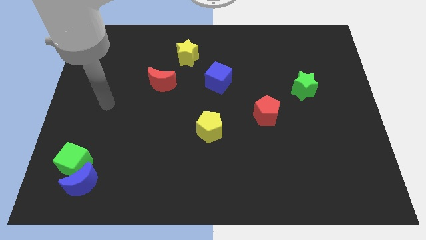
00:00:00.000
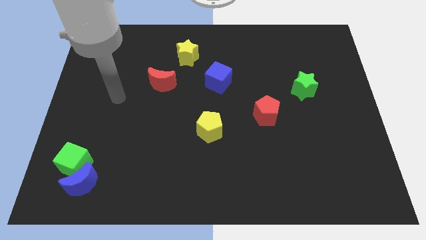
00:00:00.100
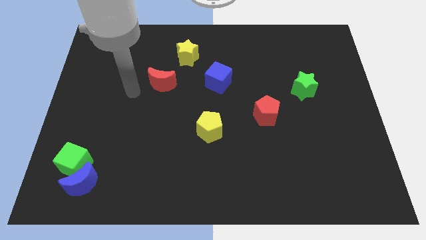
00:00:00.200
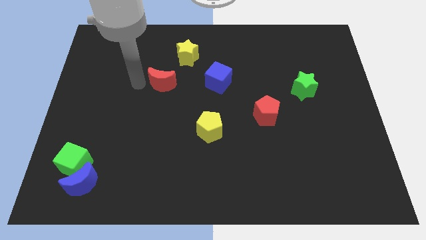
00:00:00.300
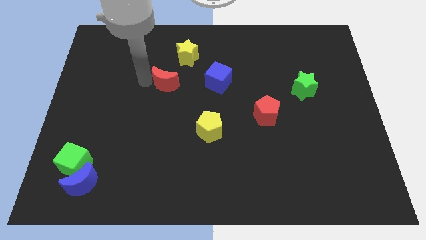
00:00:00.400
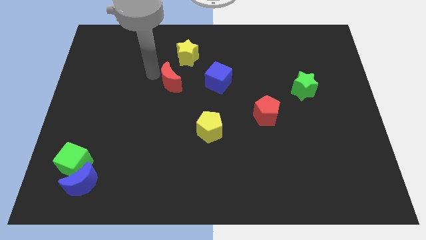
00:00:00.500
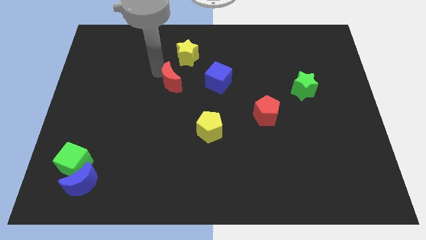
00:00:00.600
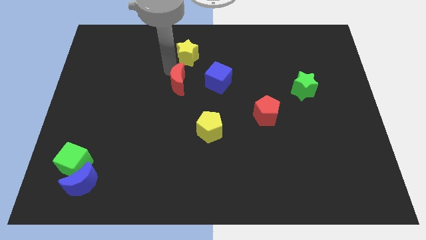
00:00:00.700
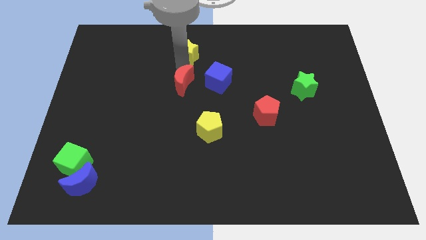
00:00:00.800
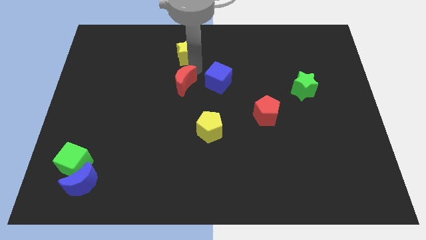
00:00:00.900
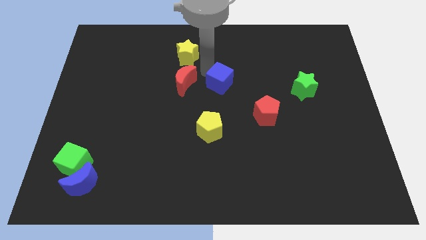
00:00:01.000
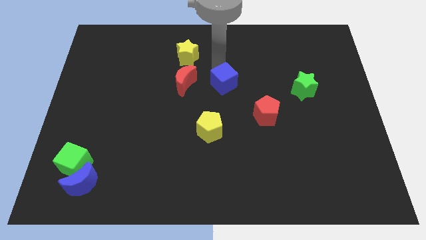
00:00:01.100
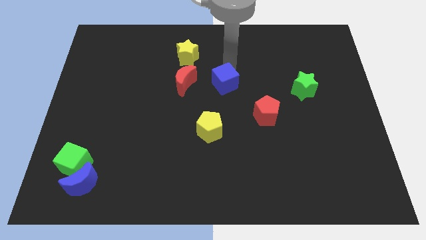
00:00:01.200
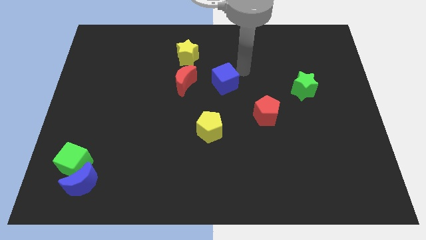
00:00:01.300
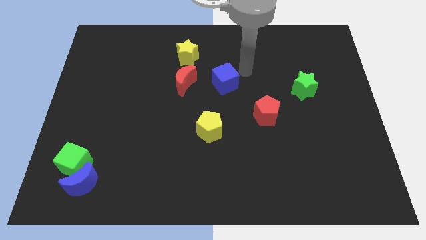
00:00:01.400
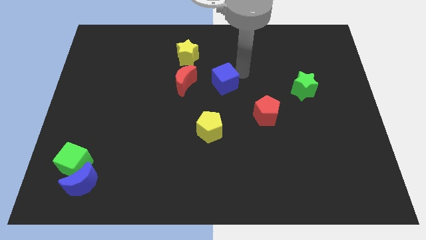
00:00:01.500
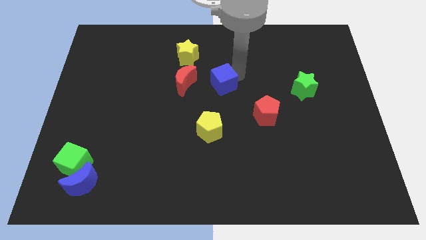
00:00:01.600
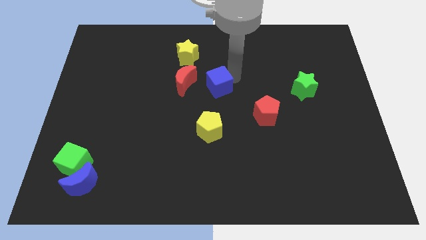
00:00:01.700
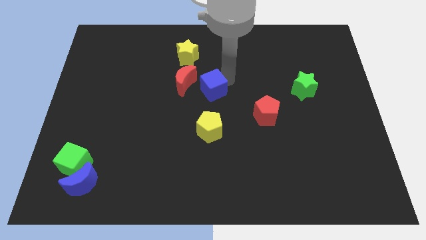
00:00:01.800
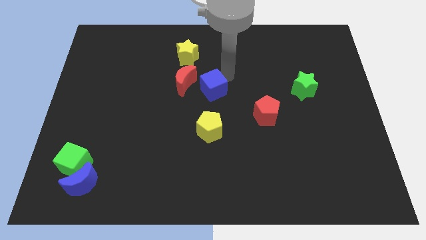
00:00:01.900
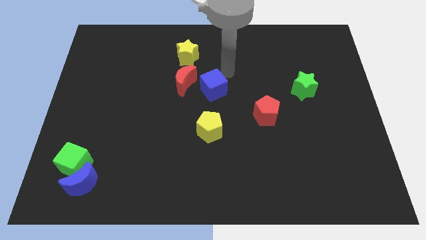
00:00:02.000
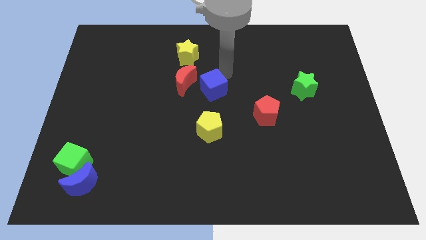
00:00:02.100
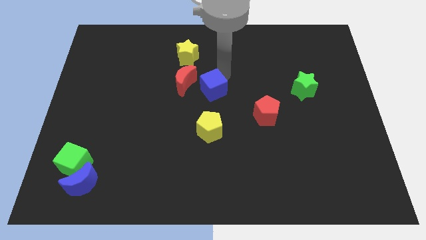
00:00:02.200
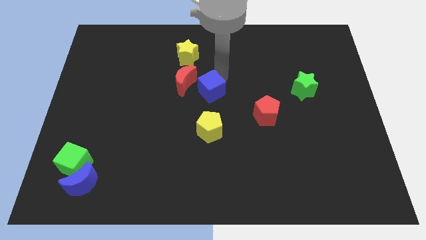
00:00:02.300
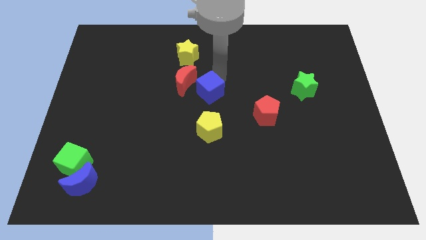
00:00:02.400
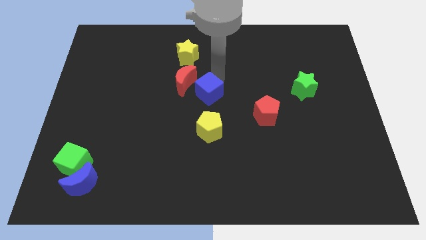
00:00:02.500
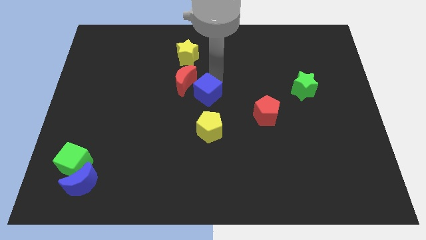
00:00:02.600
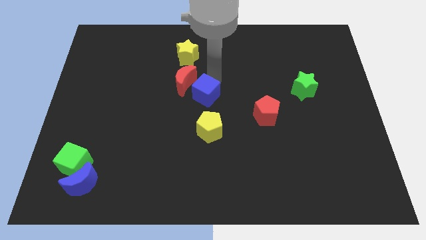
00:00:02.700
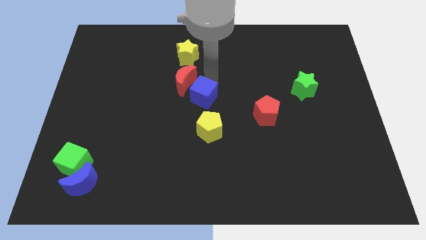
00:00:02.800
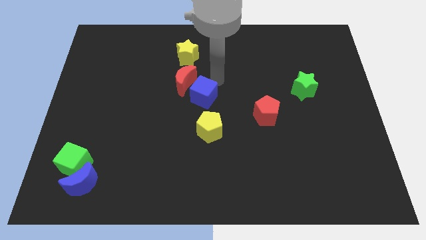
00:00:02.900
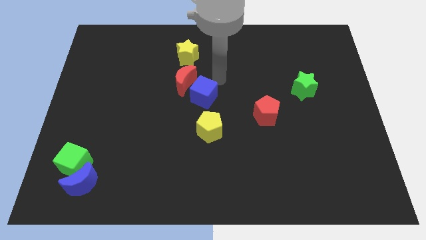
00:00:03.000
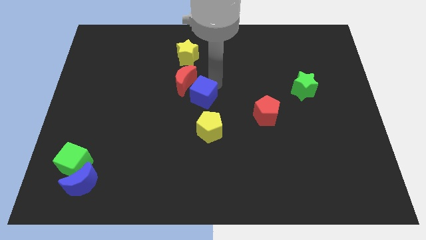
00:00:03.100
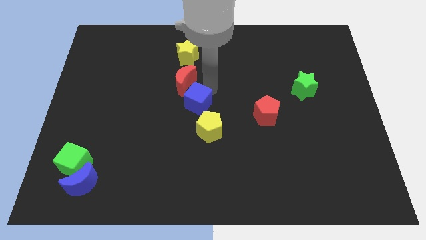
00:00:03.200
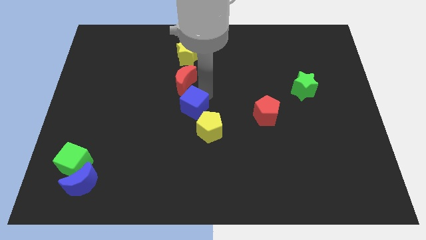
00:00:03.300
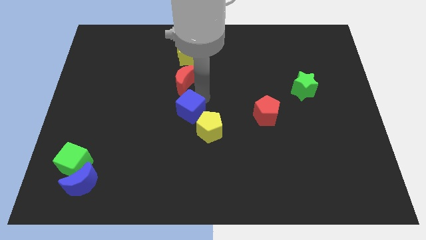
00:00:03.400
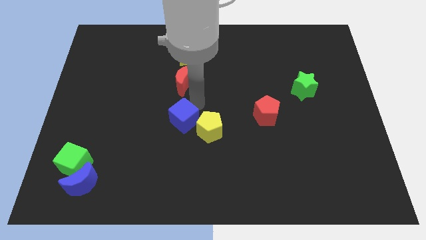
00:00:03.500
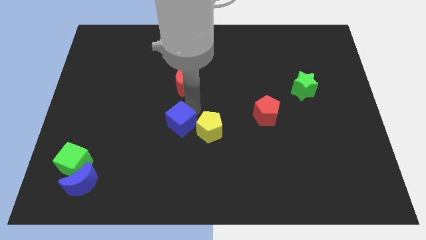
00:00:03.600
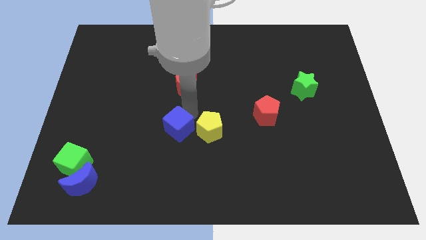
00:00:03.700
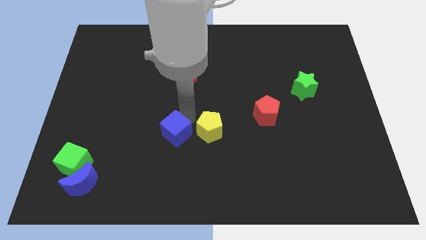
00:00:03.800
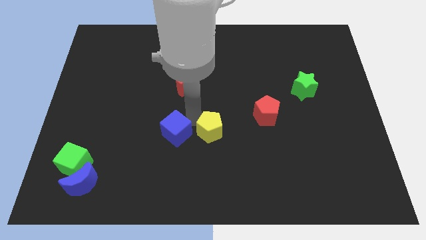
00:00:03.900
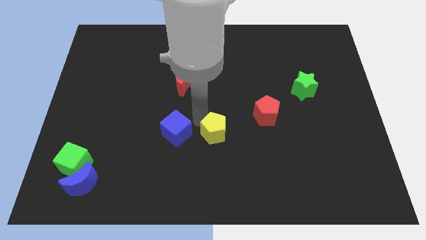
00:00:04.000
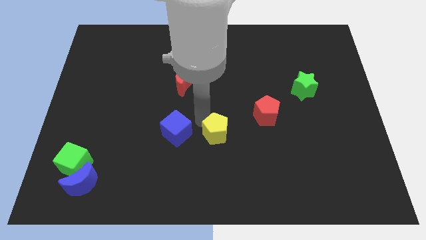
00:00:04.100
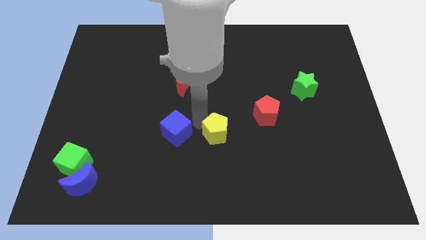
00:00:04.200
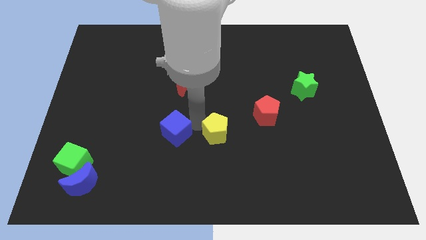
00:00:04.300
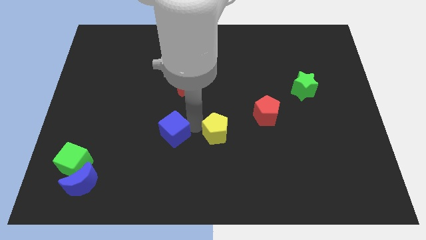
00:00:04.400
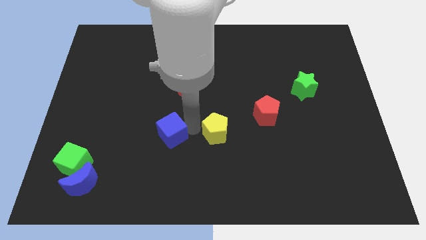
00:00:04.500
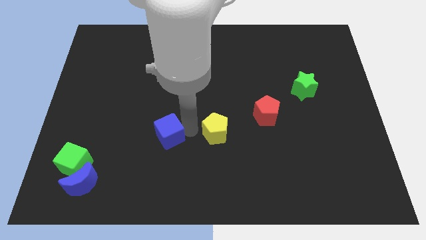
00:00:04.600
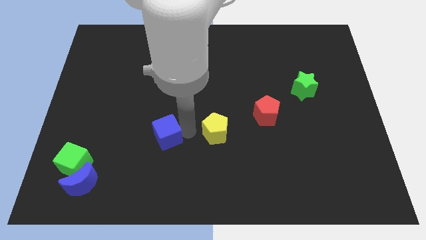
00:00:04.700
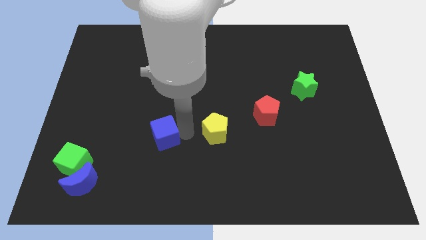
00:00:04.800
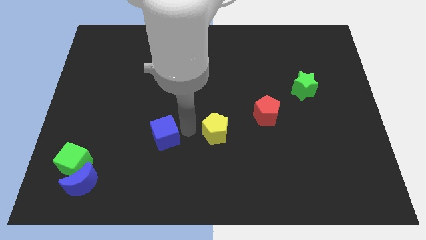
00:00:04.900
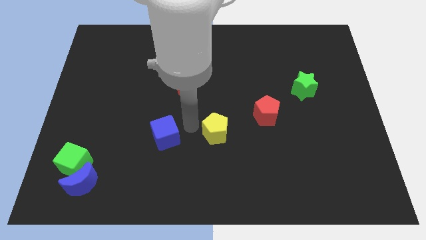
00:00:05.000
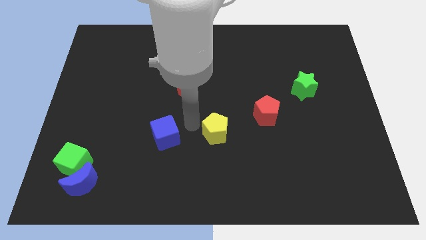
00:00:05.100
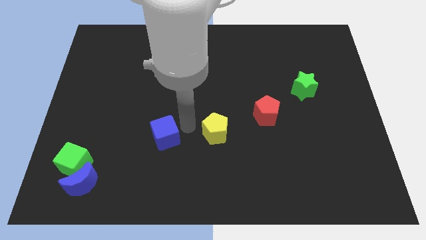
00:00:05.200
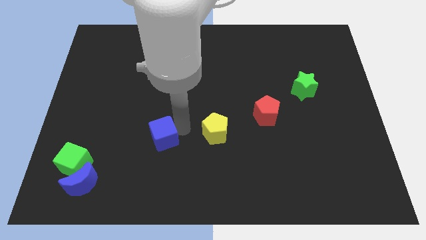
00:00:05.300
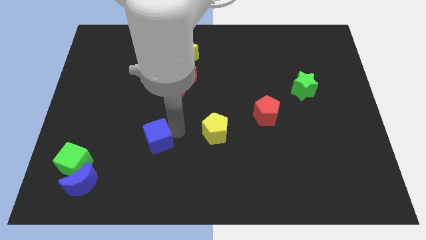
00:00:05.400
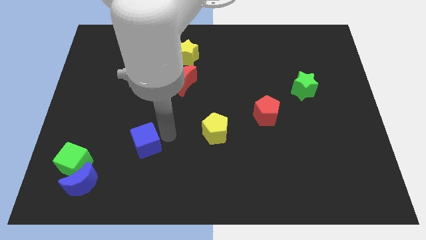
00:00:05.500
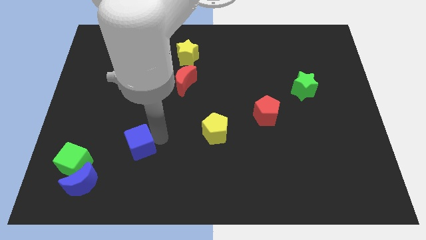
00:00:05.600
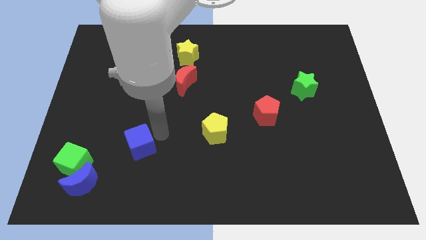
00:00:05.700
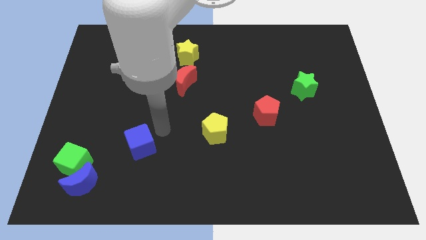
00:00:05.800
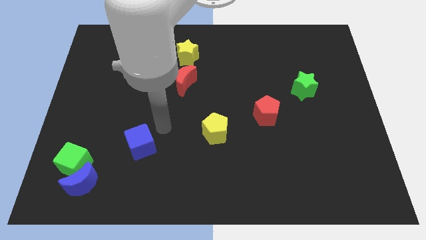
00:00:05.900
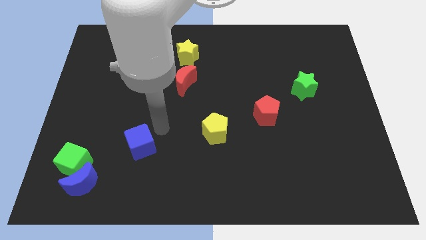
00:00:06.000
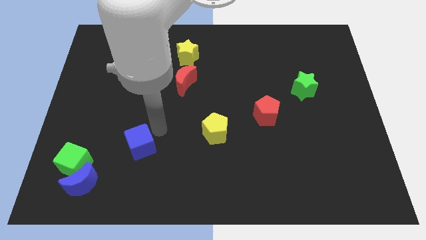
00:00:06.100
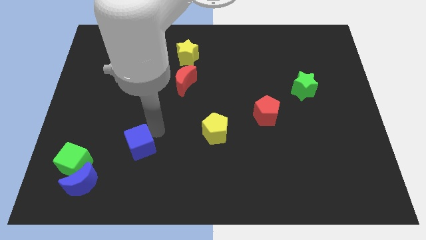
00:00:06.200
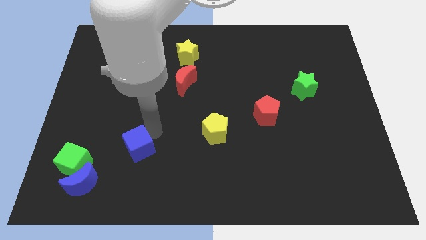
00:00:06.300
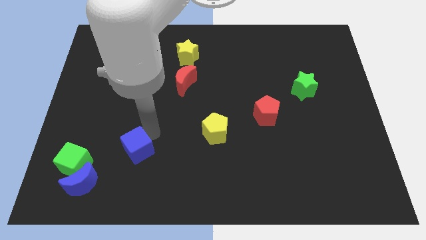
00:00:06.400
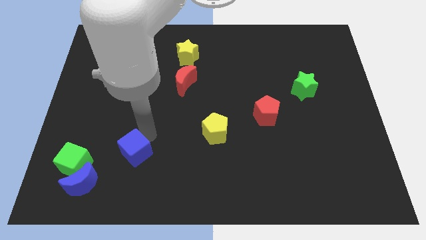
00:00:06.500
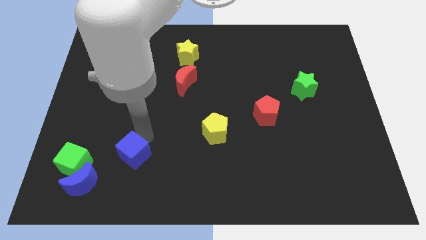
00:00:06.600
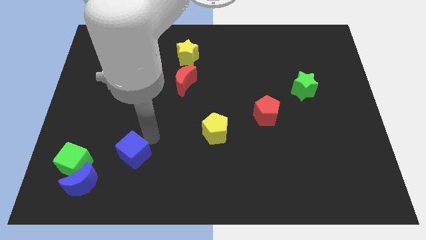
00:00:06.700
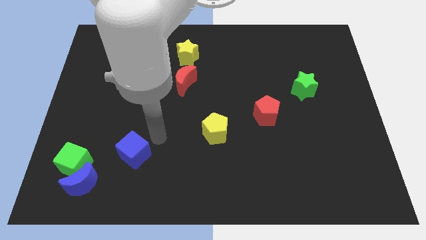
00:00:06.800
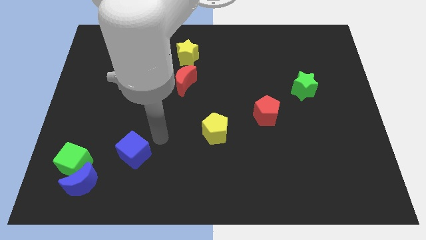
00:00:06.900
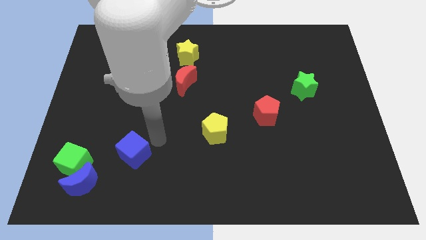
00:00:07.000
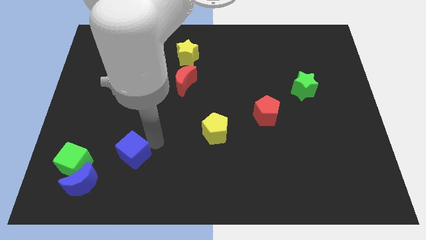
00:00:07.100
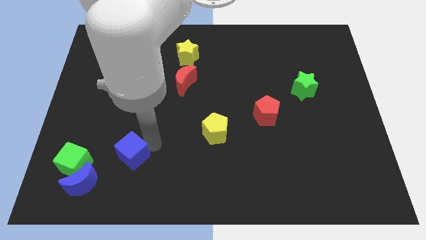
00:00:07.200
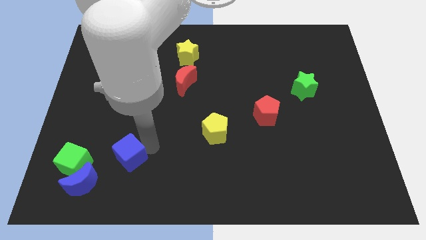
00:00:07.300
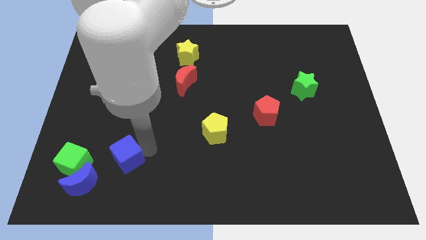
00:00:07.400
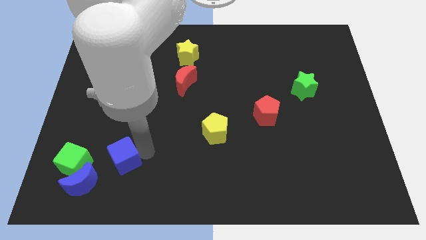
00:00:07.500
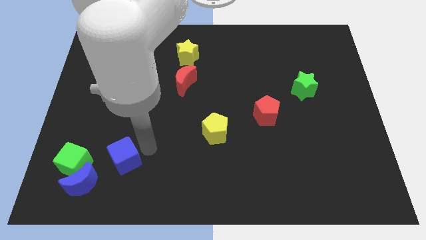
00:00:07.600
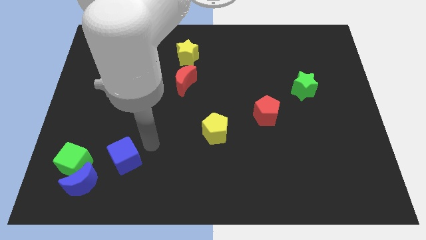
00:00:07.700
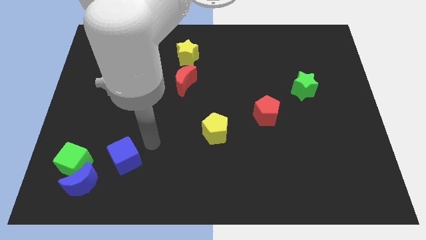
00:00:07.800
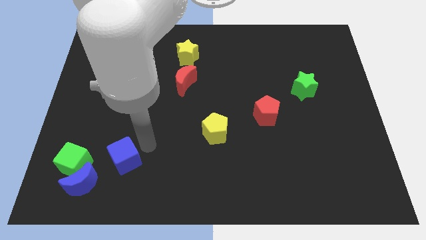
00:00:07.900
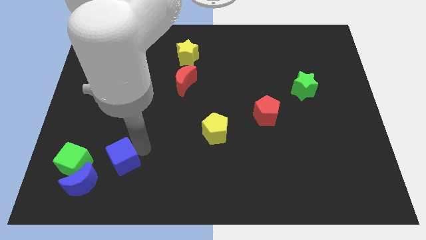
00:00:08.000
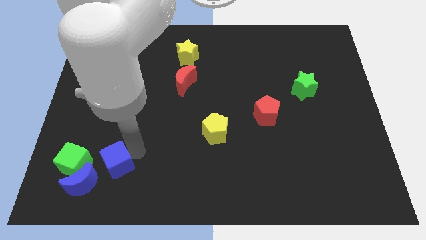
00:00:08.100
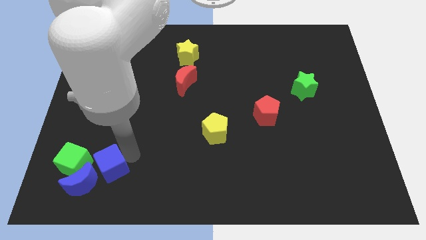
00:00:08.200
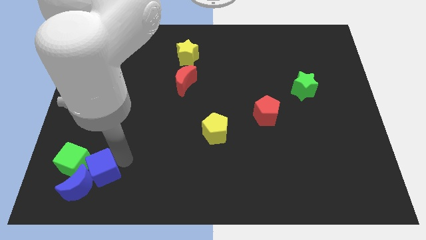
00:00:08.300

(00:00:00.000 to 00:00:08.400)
put the blue cube next to the blue moon
